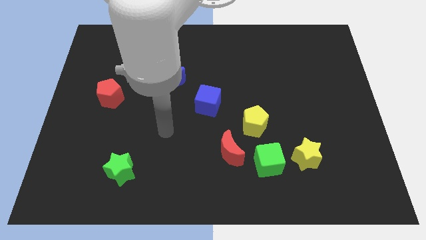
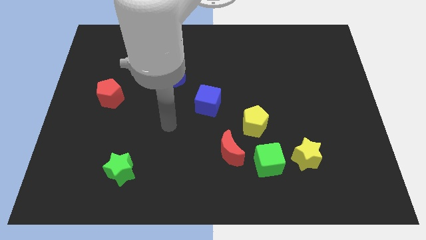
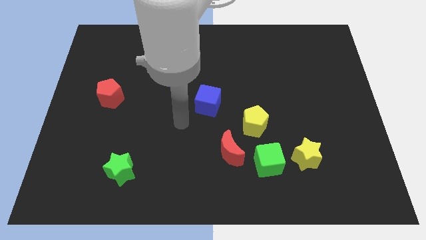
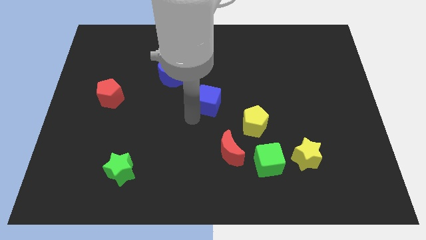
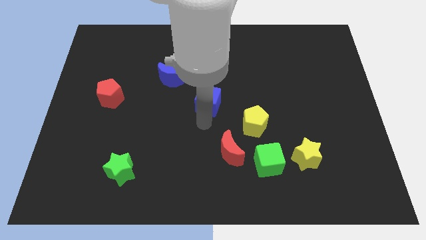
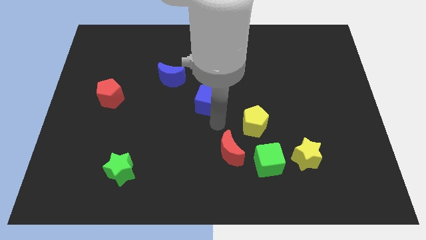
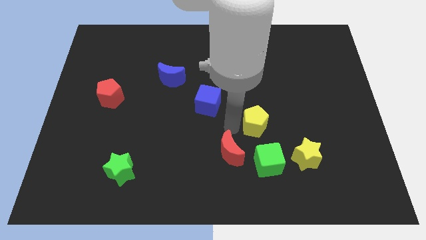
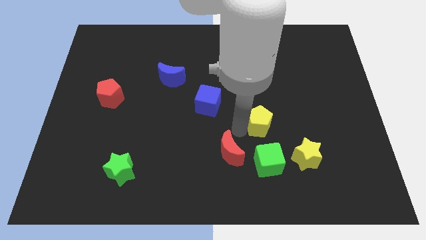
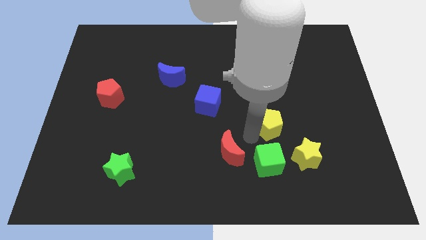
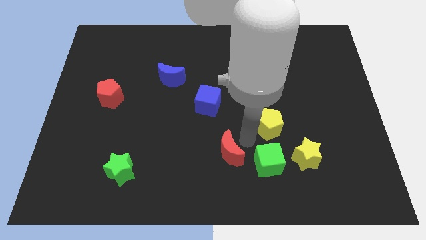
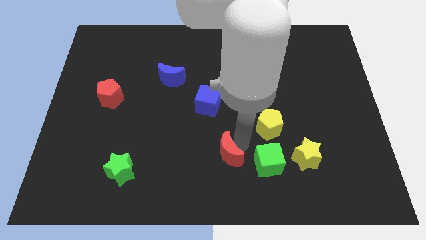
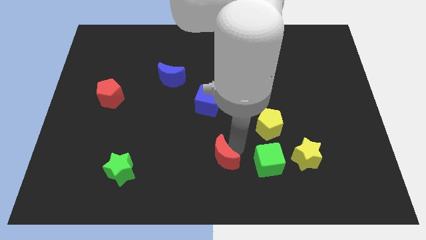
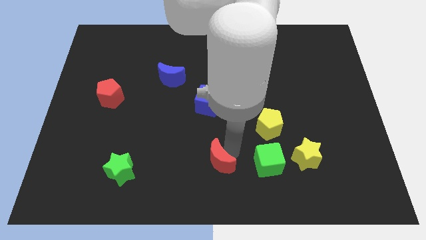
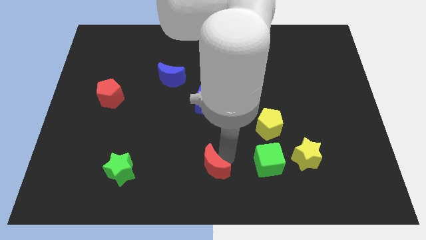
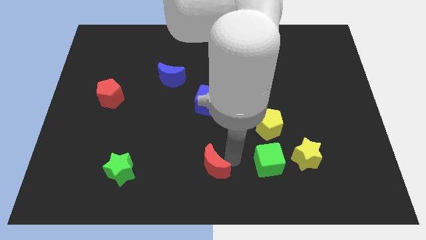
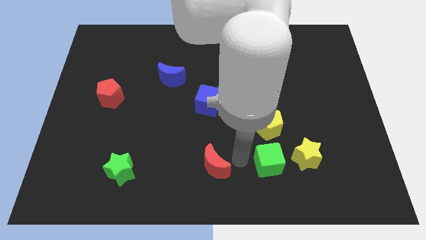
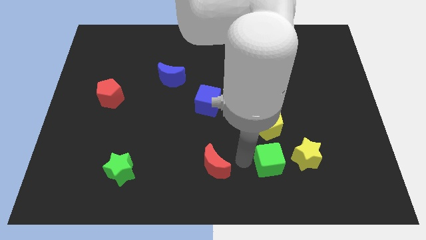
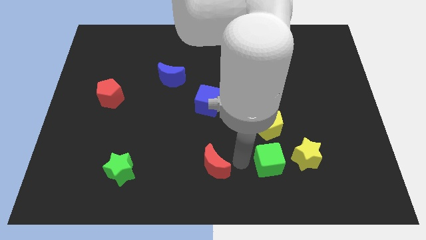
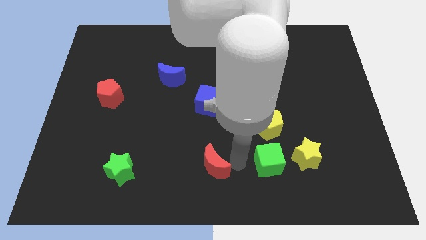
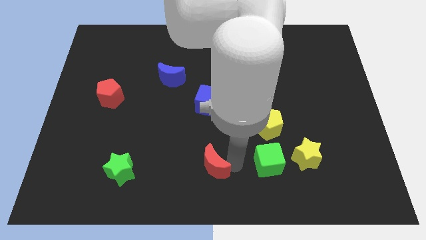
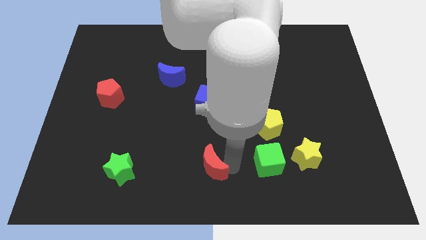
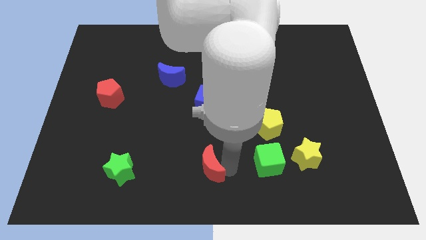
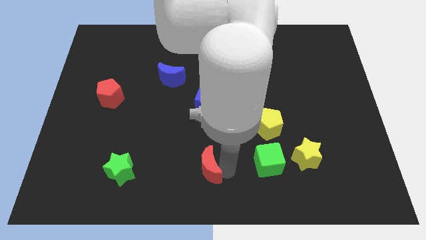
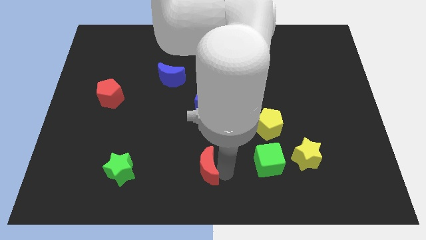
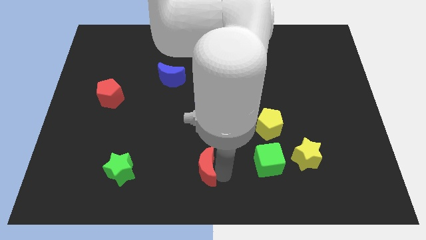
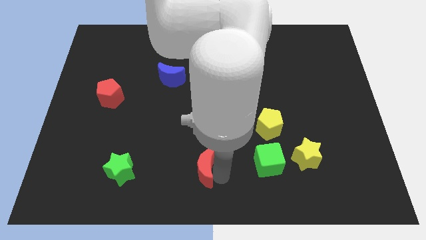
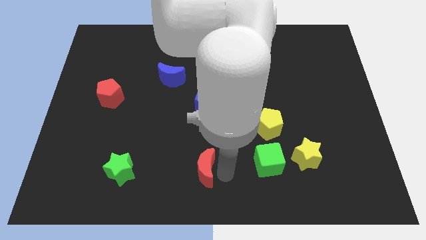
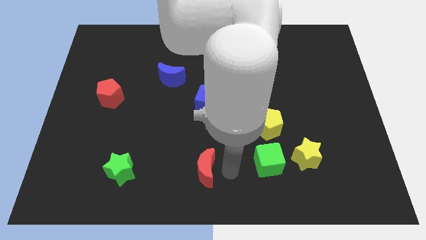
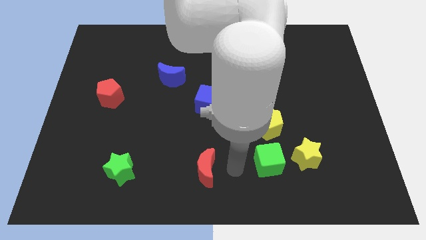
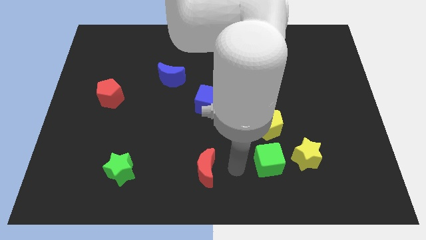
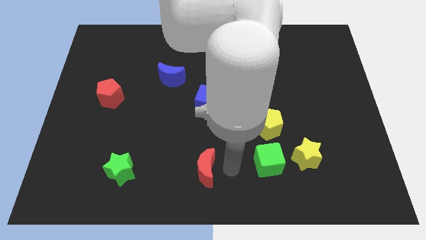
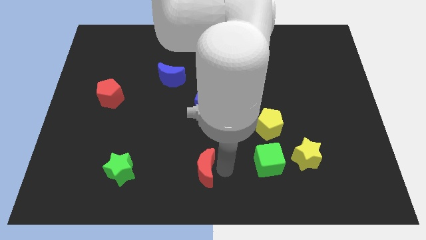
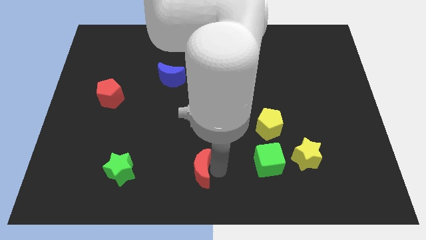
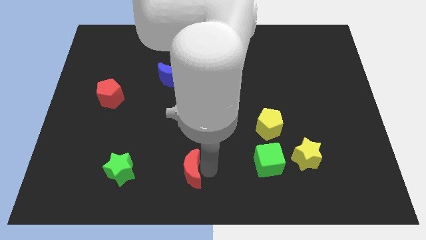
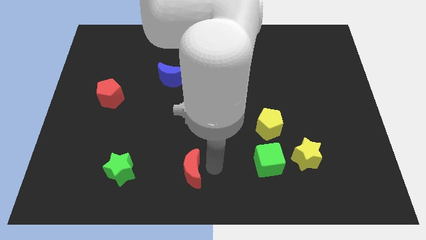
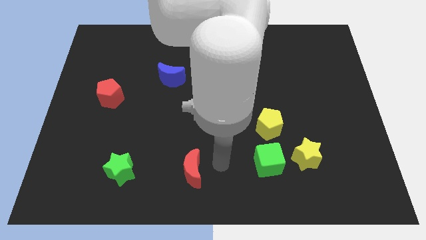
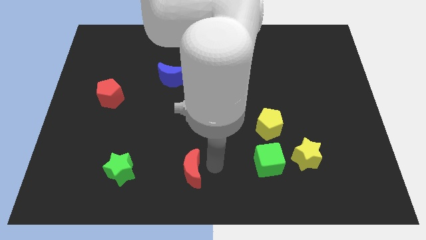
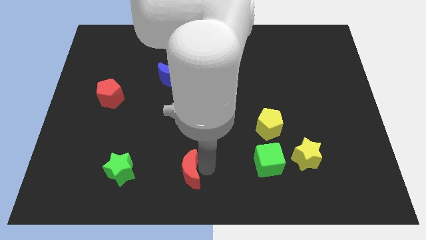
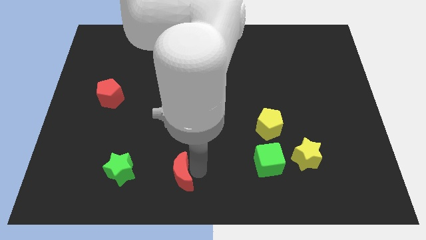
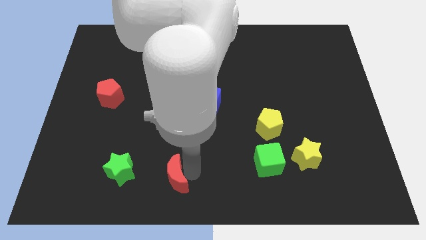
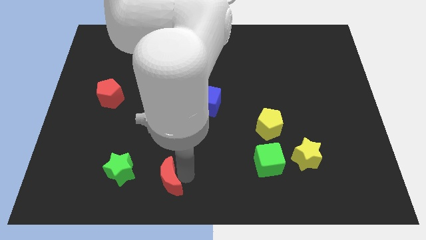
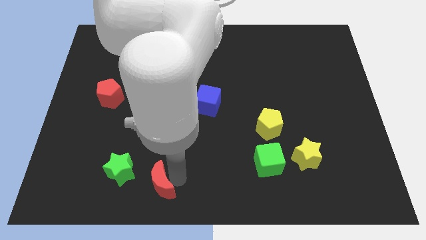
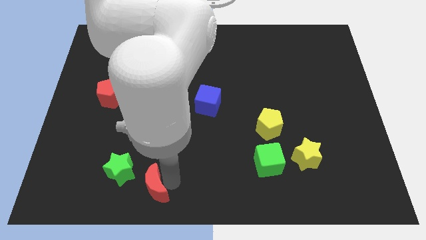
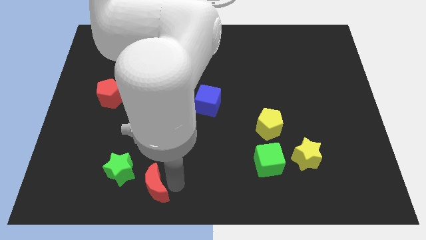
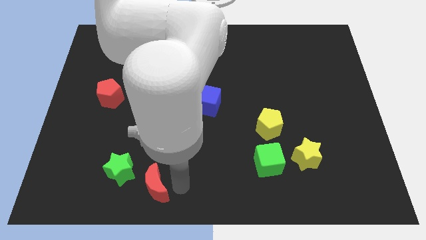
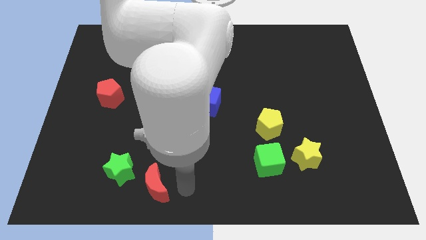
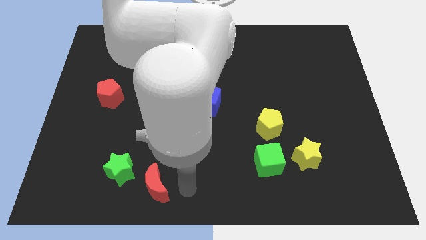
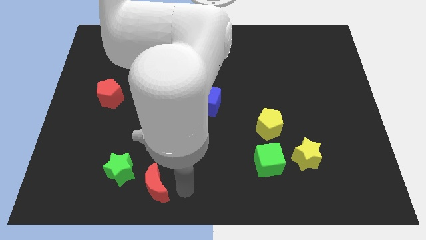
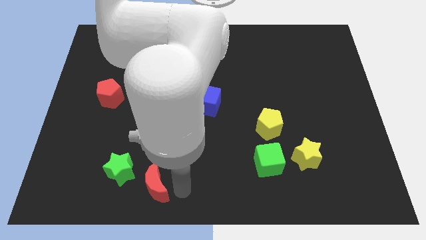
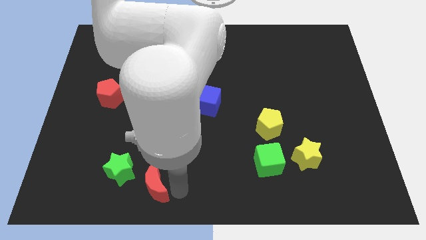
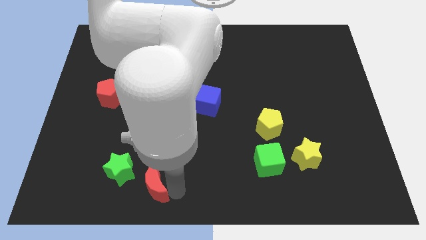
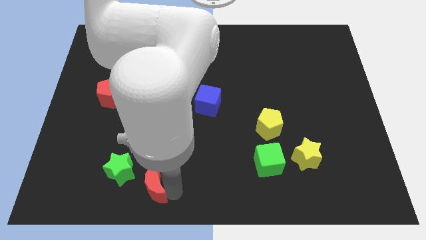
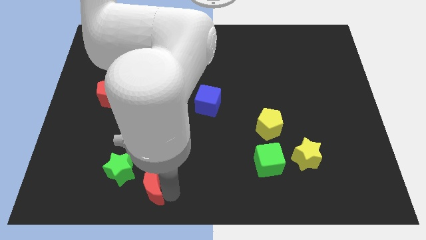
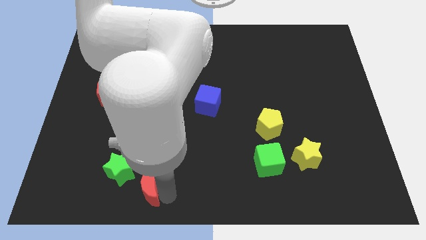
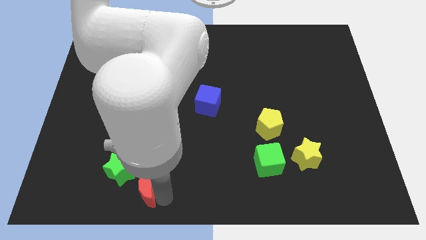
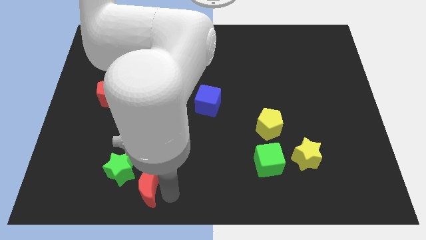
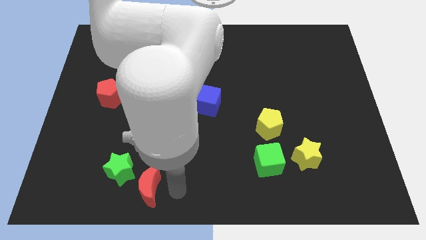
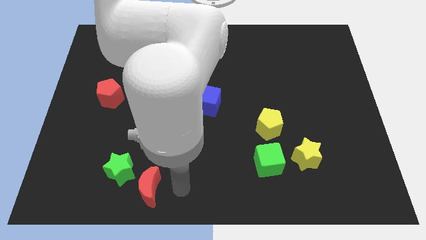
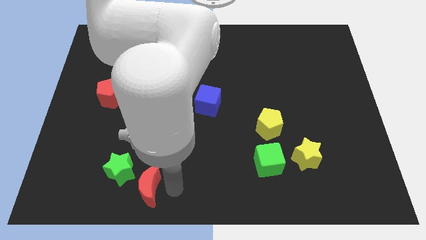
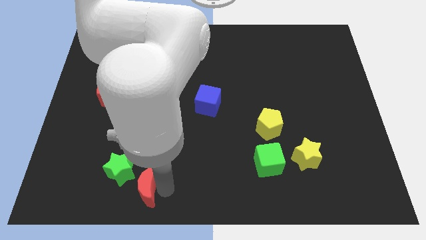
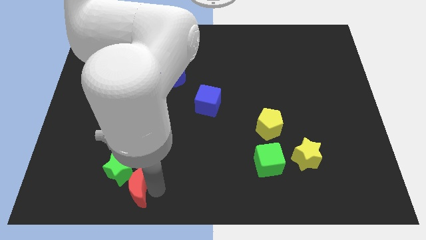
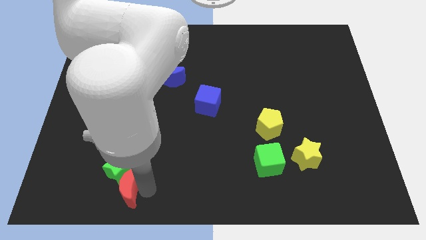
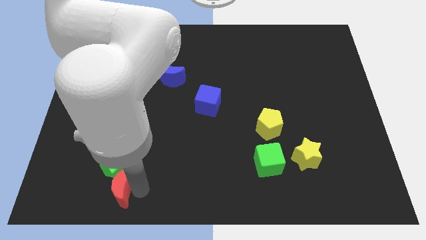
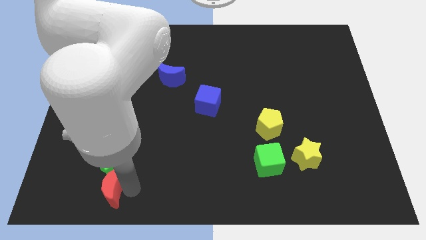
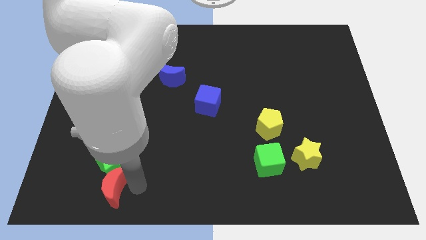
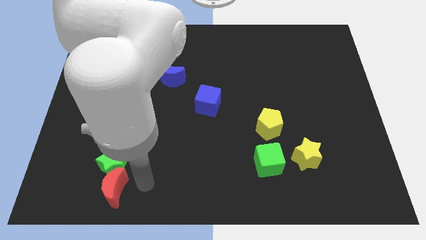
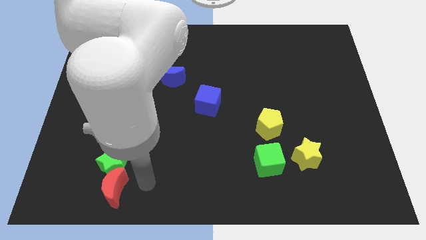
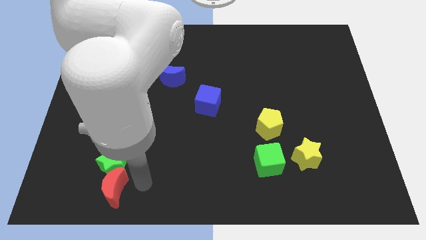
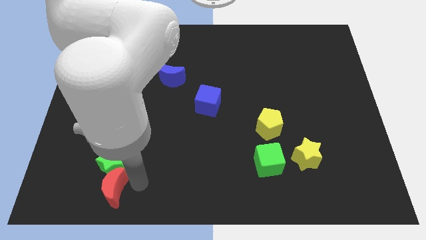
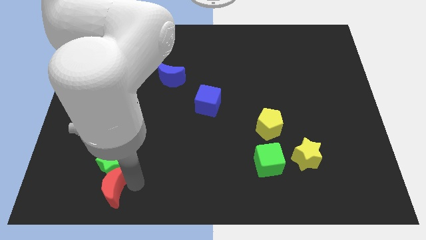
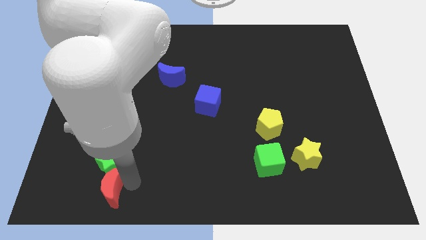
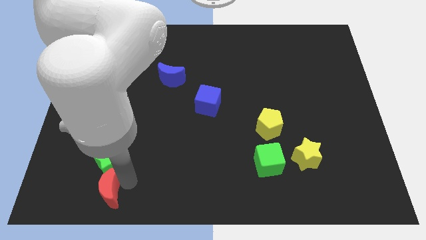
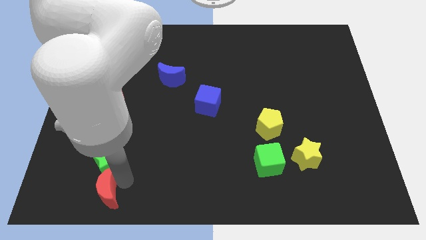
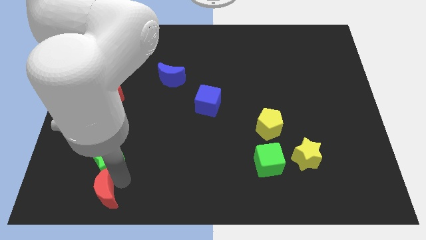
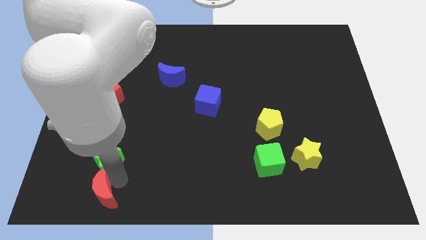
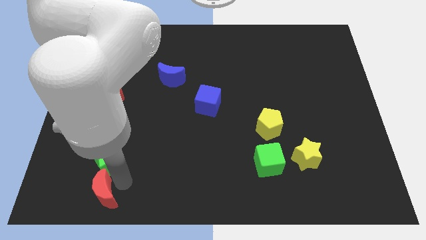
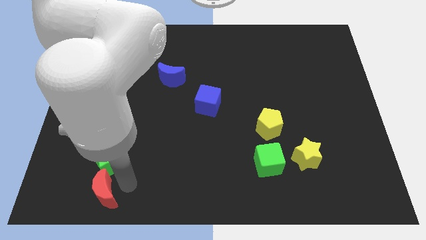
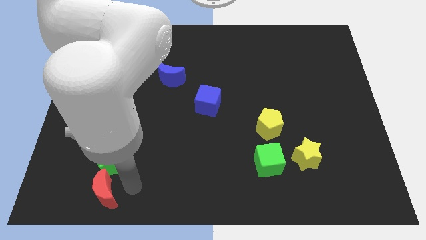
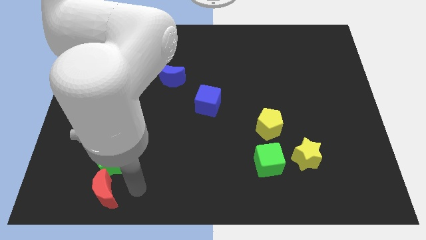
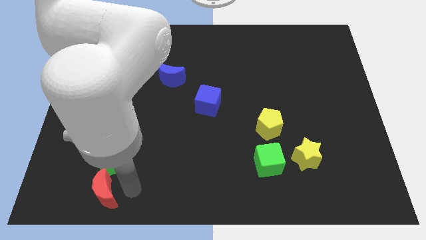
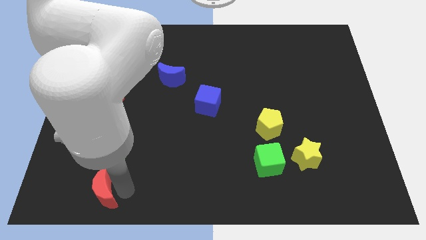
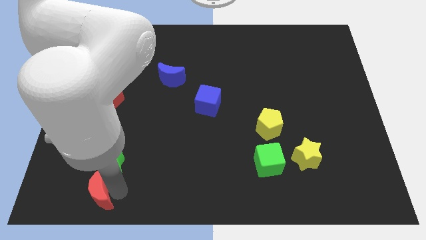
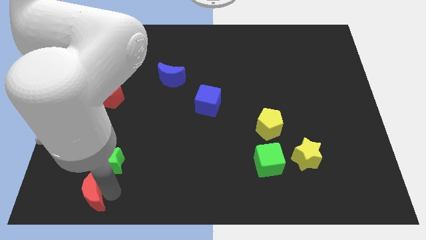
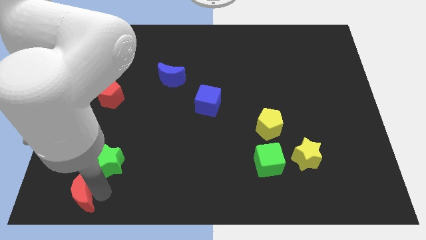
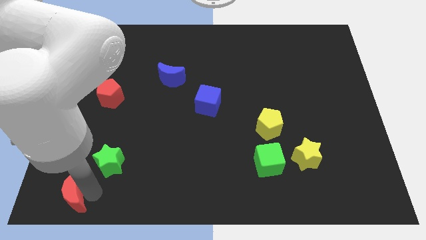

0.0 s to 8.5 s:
slide the red moon to the bottom left
